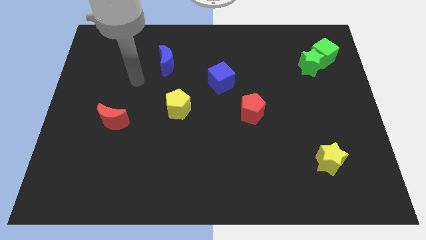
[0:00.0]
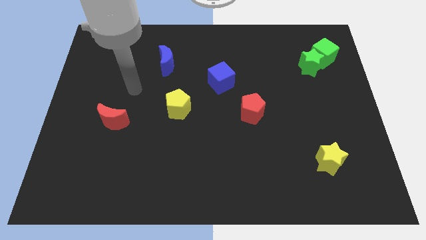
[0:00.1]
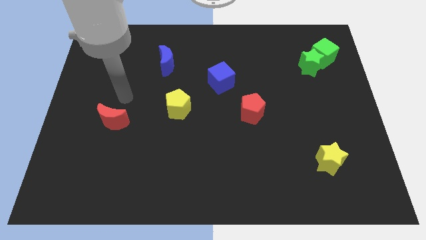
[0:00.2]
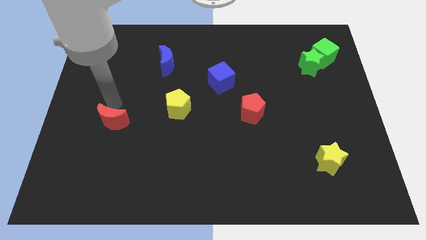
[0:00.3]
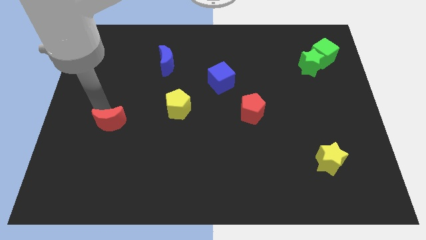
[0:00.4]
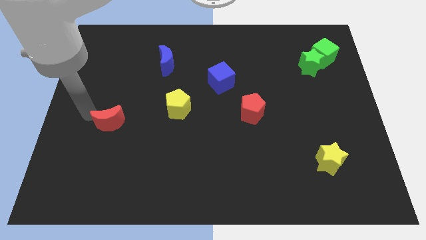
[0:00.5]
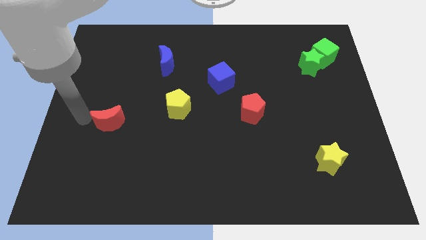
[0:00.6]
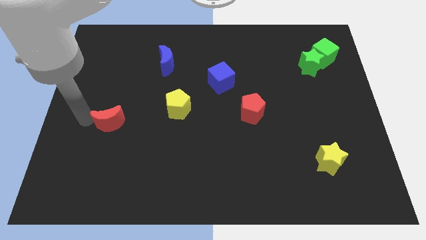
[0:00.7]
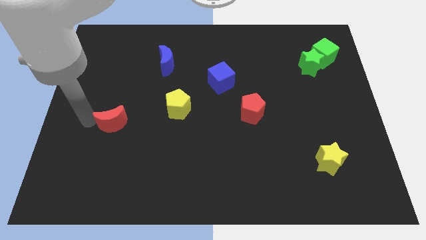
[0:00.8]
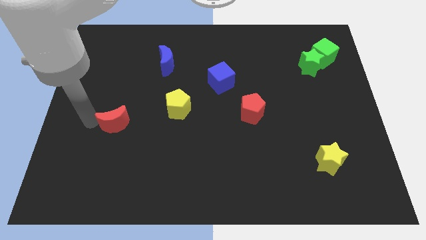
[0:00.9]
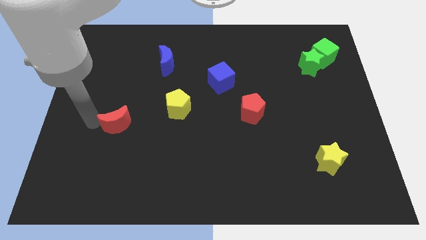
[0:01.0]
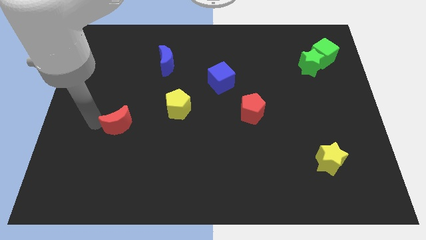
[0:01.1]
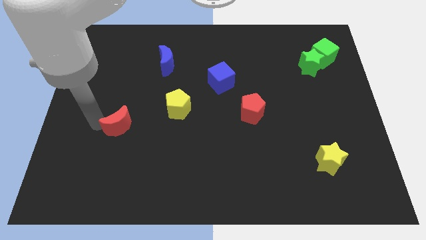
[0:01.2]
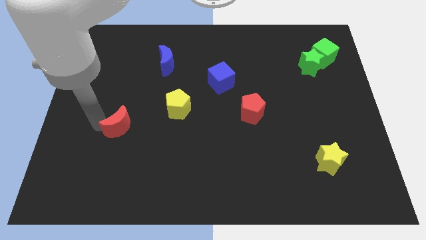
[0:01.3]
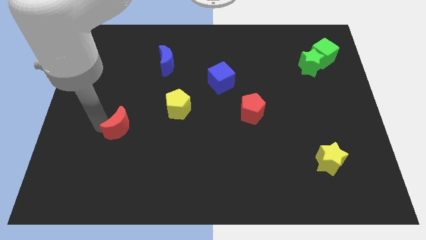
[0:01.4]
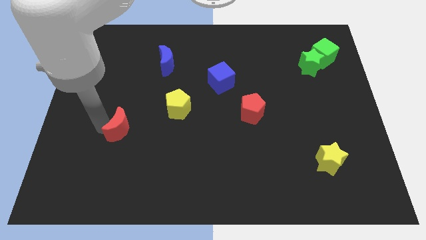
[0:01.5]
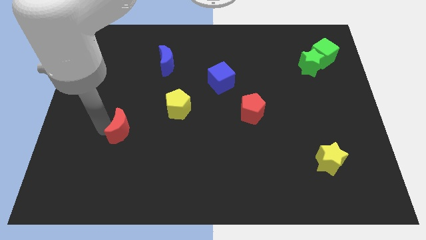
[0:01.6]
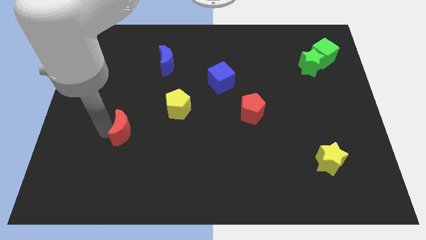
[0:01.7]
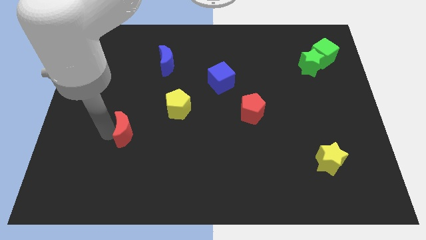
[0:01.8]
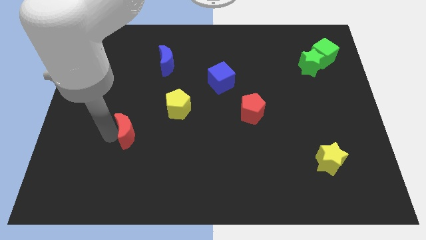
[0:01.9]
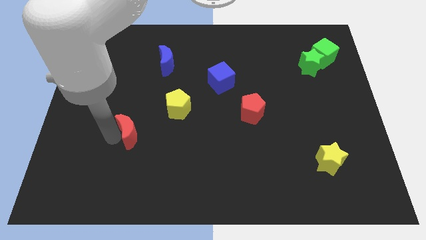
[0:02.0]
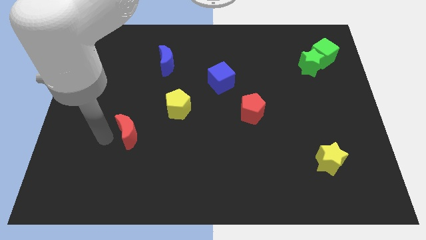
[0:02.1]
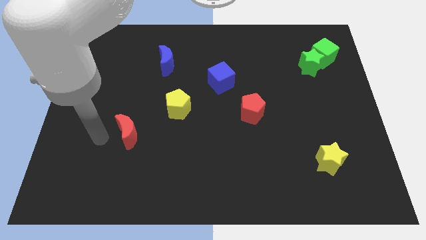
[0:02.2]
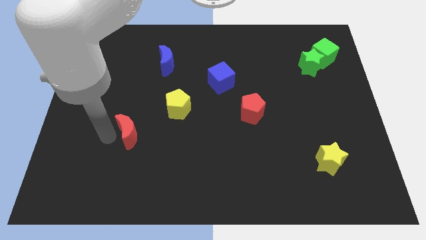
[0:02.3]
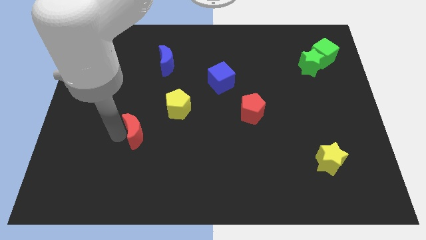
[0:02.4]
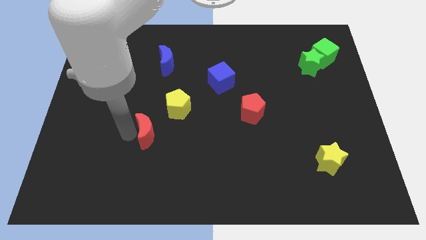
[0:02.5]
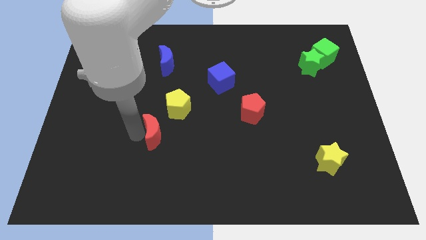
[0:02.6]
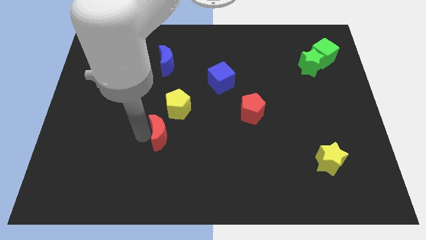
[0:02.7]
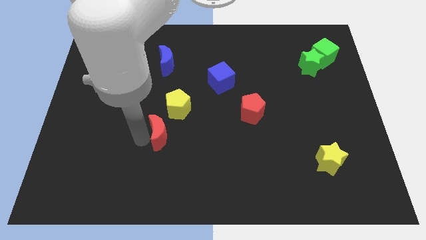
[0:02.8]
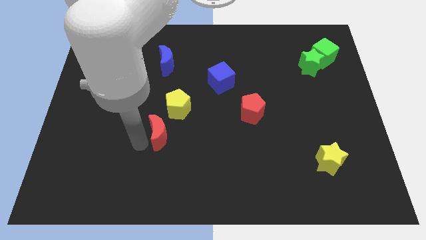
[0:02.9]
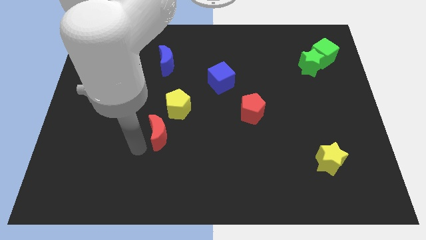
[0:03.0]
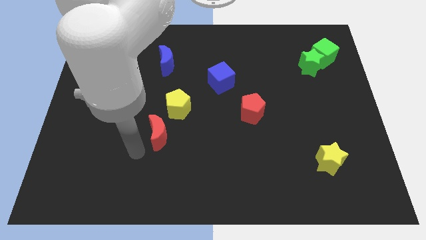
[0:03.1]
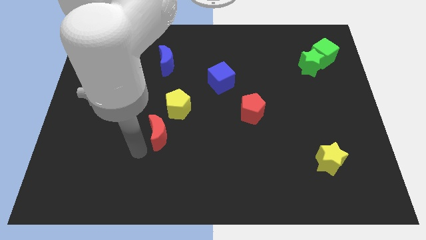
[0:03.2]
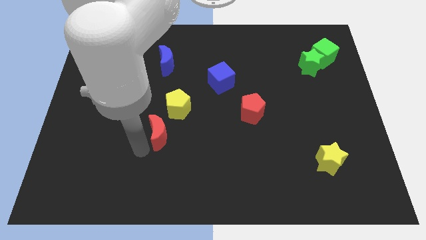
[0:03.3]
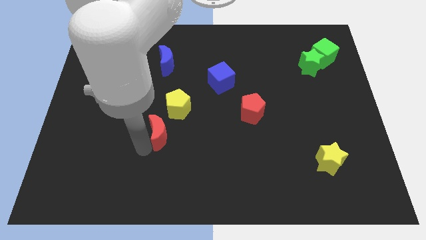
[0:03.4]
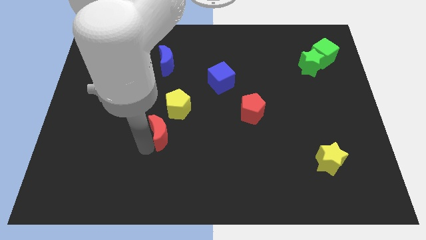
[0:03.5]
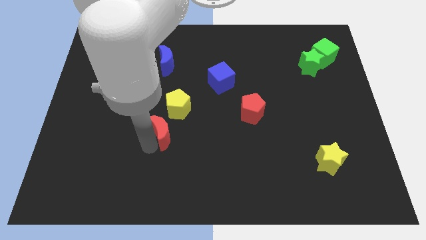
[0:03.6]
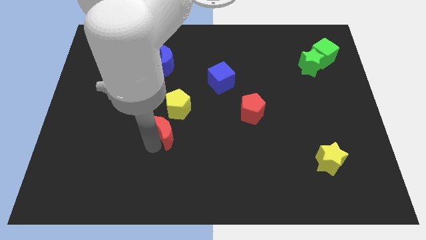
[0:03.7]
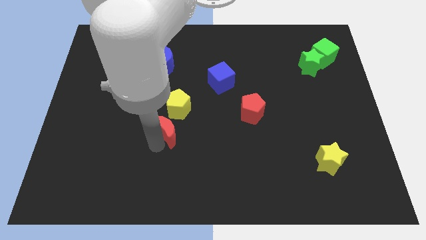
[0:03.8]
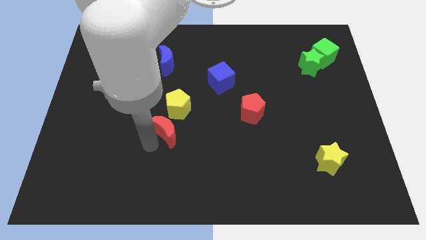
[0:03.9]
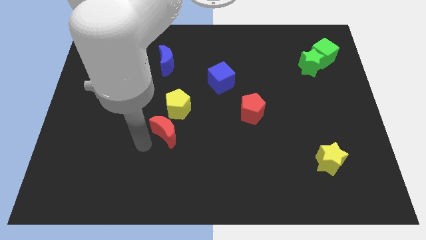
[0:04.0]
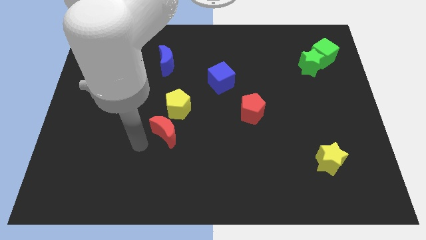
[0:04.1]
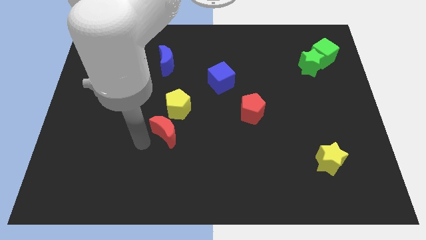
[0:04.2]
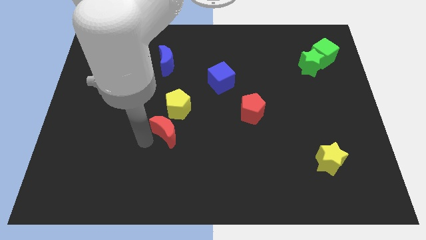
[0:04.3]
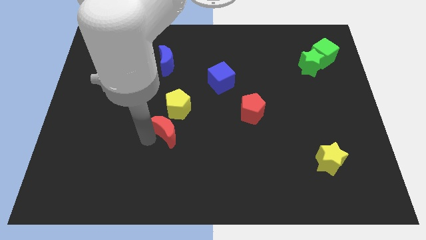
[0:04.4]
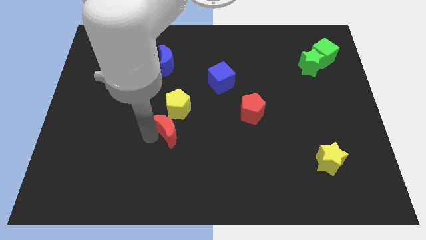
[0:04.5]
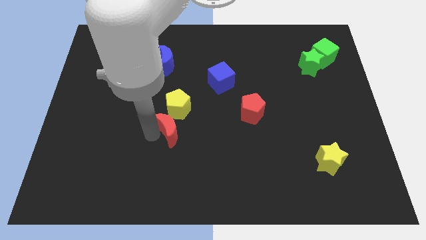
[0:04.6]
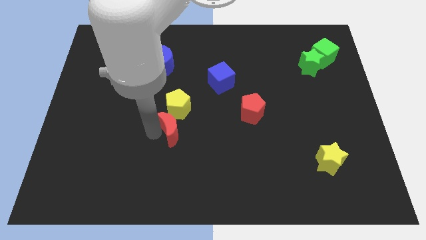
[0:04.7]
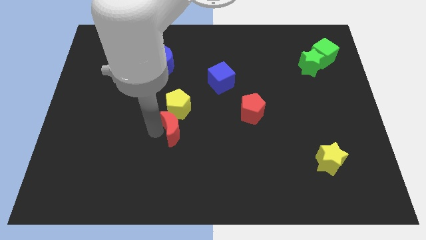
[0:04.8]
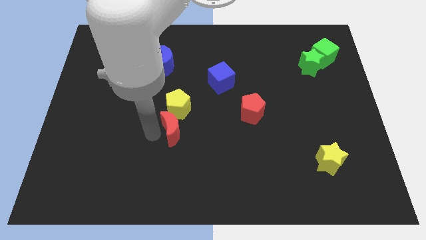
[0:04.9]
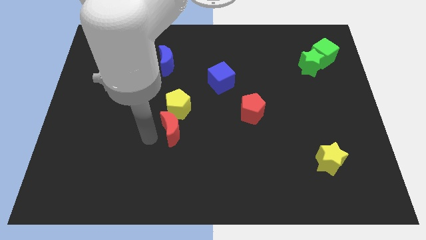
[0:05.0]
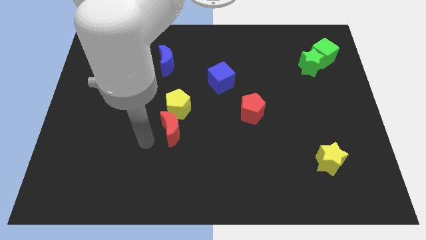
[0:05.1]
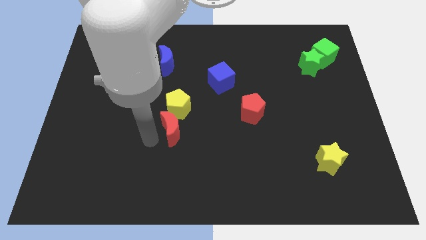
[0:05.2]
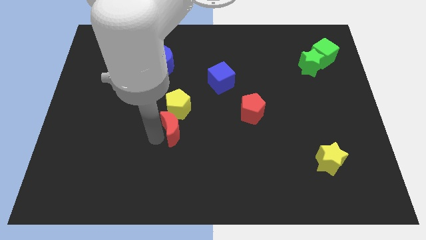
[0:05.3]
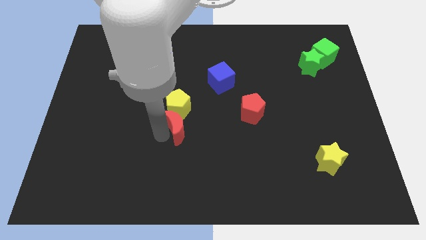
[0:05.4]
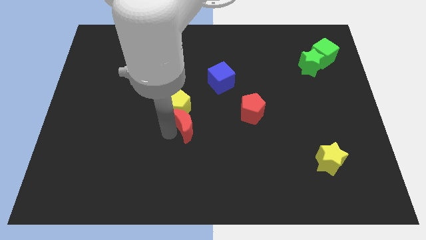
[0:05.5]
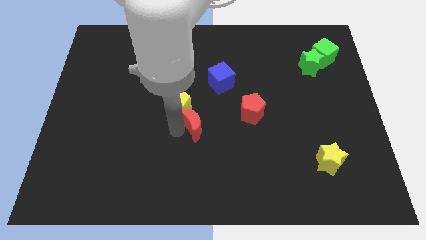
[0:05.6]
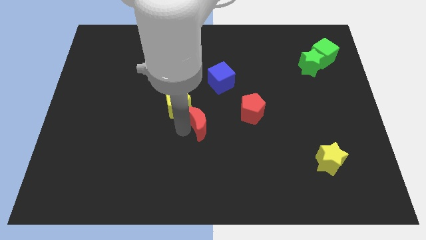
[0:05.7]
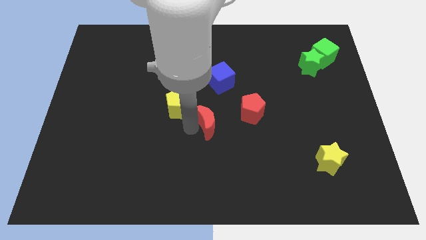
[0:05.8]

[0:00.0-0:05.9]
move the red moon to the bottom of the blue cube

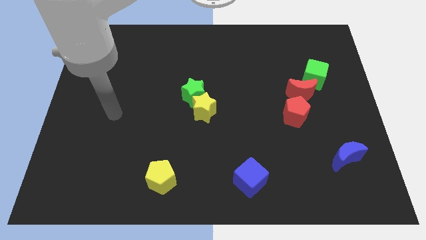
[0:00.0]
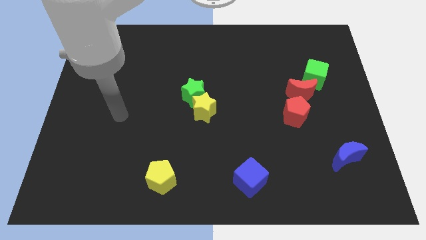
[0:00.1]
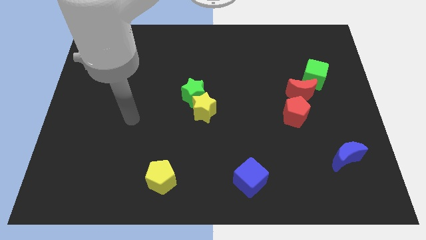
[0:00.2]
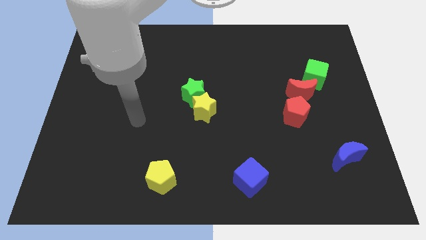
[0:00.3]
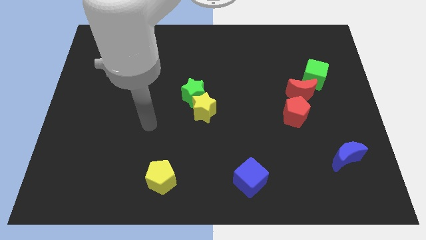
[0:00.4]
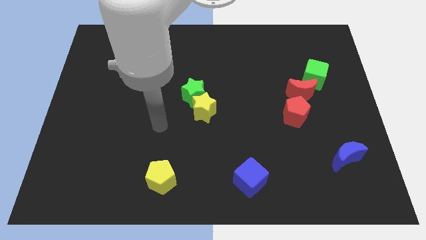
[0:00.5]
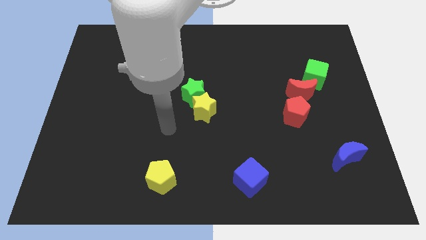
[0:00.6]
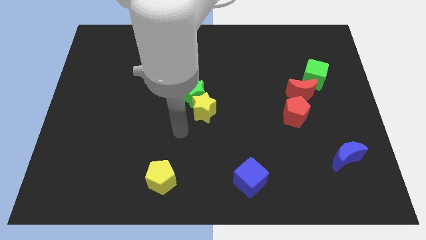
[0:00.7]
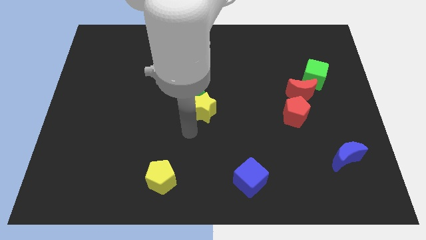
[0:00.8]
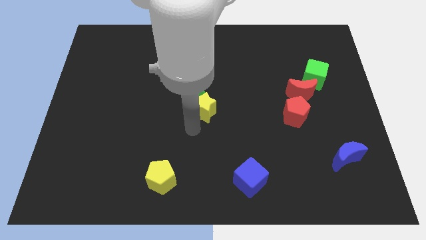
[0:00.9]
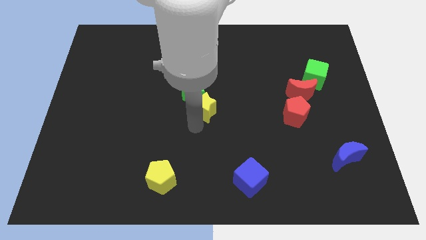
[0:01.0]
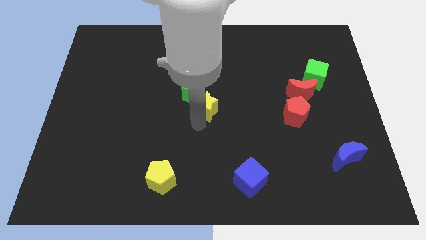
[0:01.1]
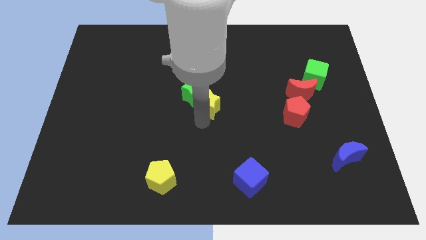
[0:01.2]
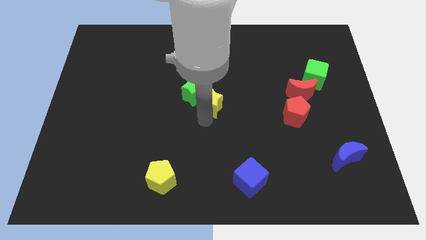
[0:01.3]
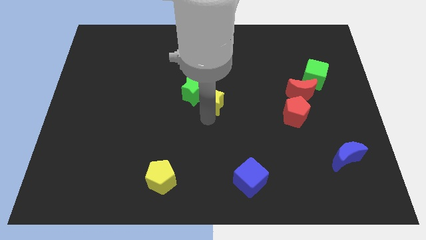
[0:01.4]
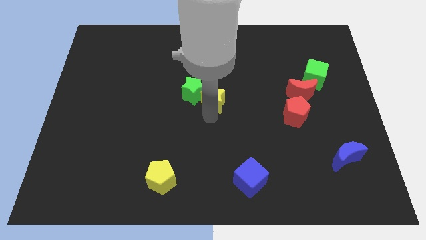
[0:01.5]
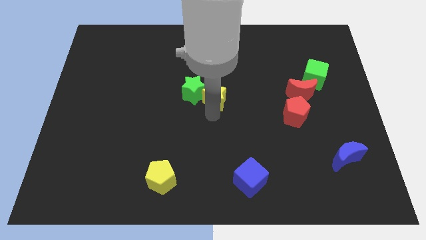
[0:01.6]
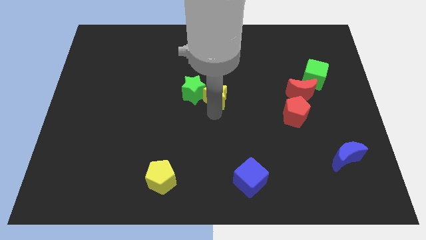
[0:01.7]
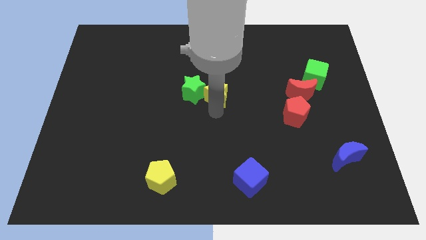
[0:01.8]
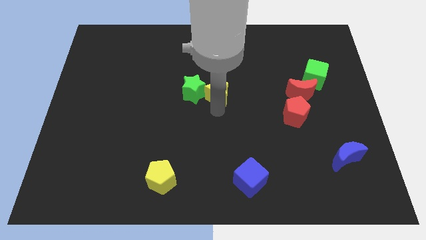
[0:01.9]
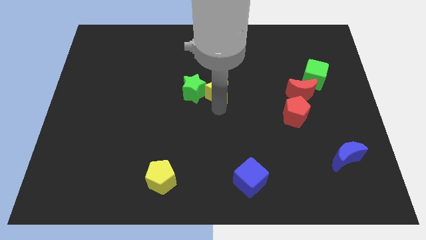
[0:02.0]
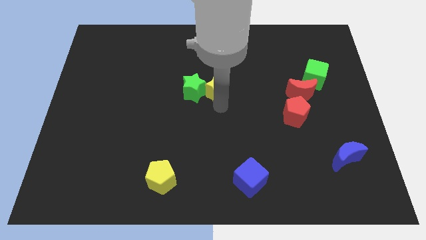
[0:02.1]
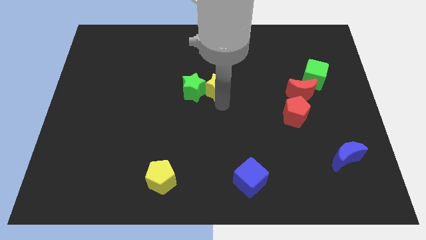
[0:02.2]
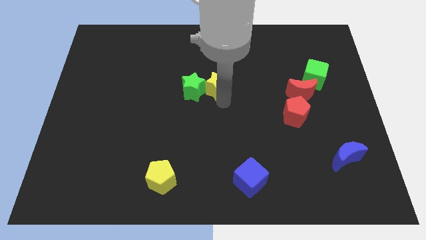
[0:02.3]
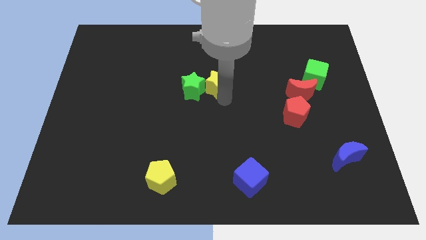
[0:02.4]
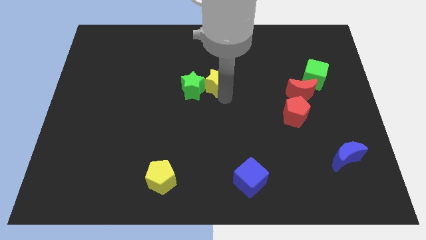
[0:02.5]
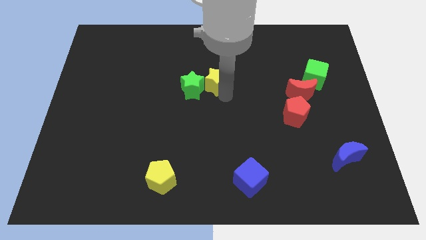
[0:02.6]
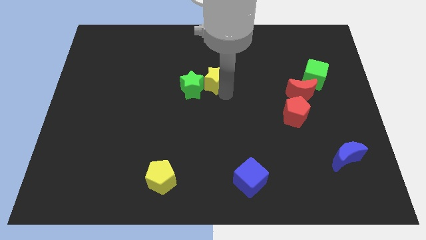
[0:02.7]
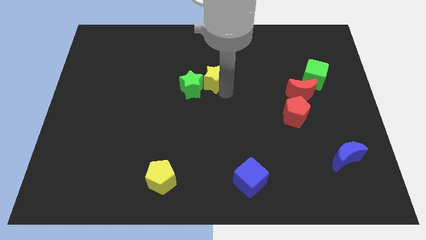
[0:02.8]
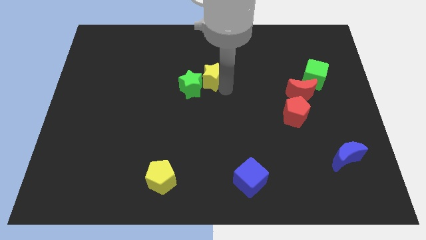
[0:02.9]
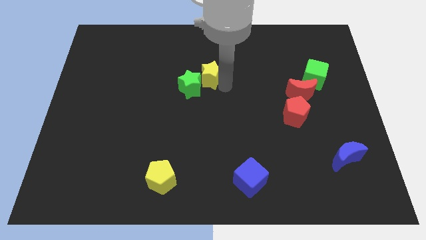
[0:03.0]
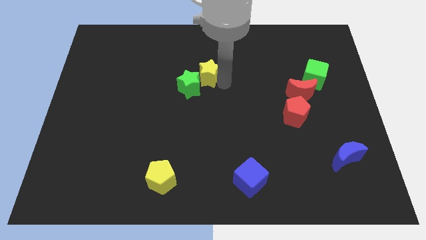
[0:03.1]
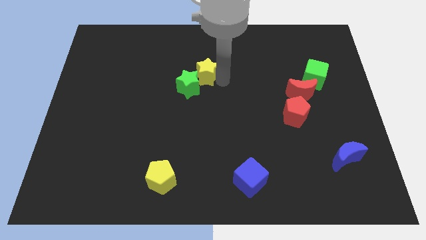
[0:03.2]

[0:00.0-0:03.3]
move the yellow star to the top side of the green star
